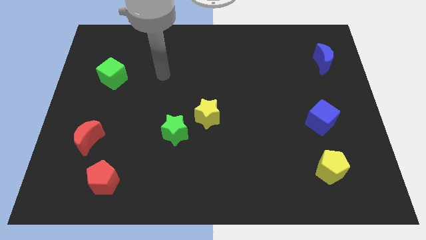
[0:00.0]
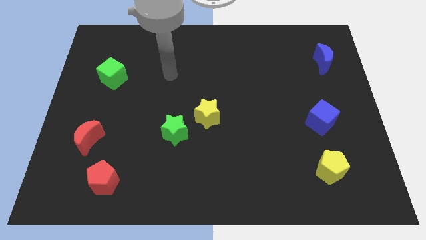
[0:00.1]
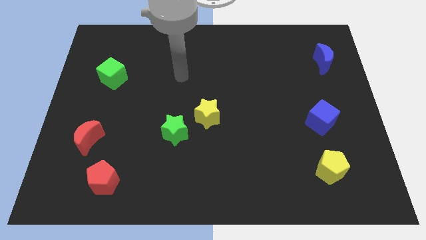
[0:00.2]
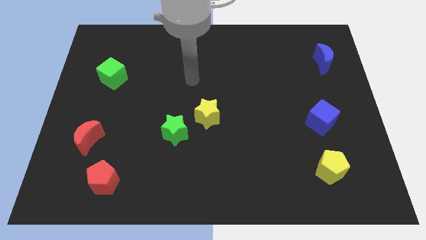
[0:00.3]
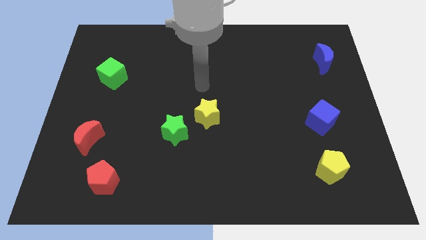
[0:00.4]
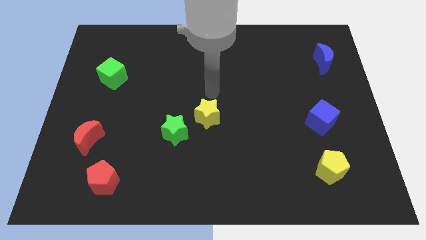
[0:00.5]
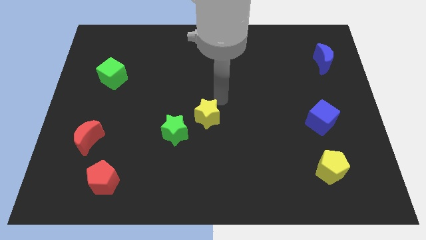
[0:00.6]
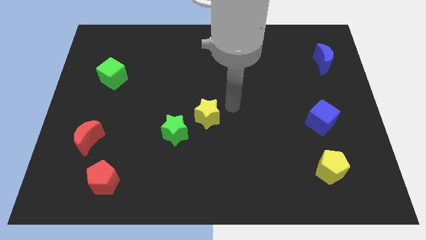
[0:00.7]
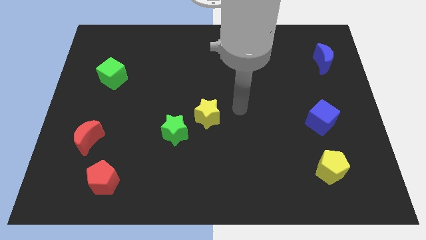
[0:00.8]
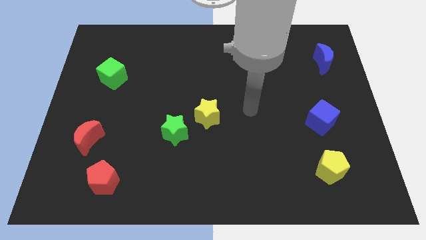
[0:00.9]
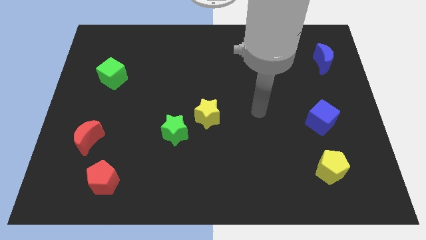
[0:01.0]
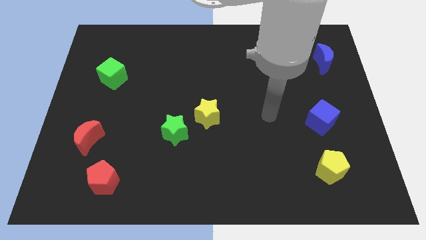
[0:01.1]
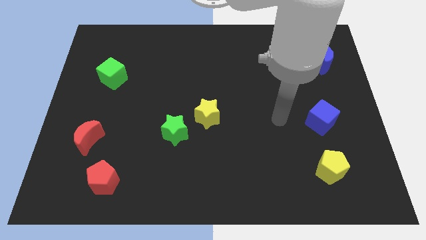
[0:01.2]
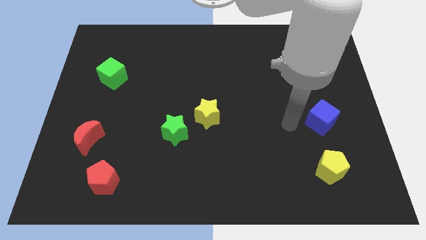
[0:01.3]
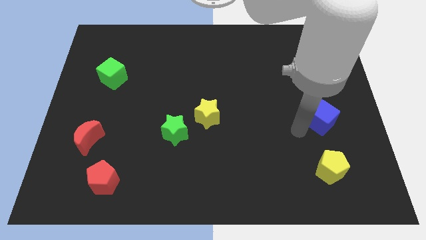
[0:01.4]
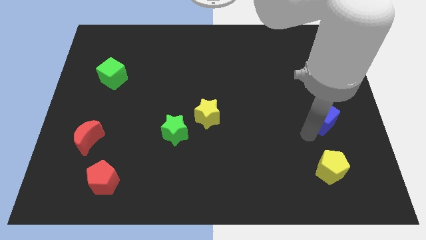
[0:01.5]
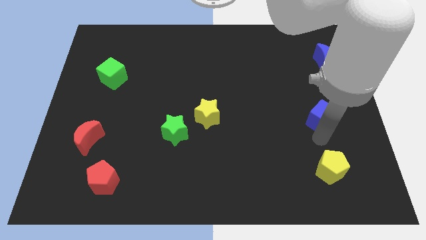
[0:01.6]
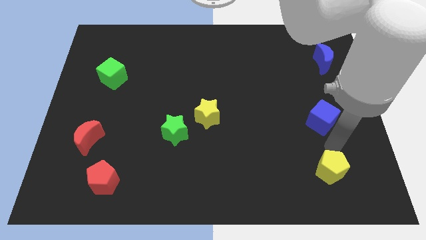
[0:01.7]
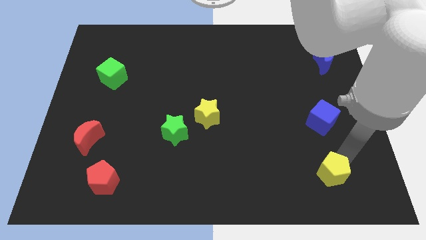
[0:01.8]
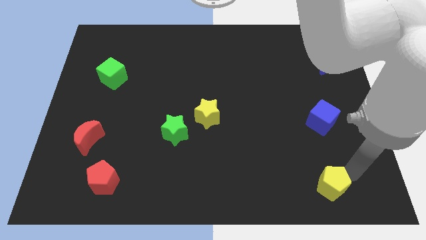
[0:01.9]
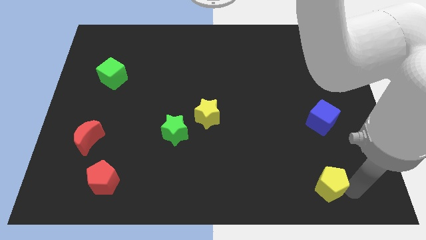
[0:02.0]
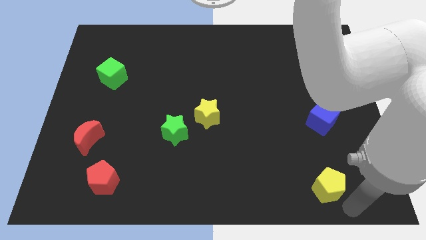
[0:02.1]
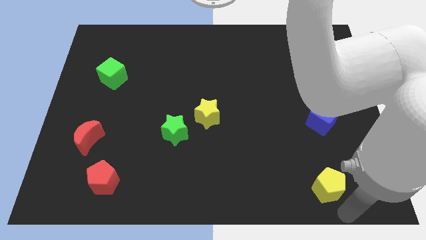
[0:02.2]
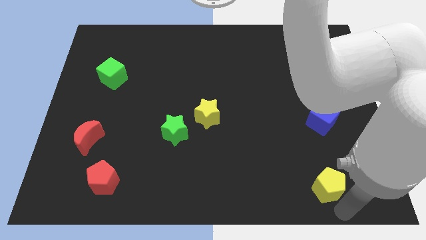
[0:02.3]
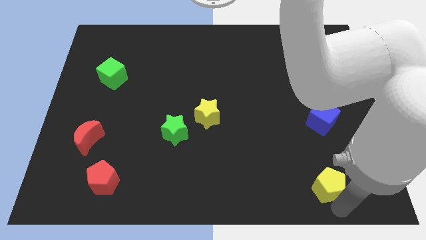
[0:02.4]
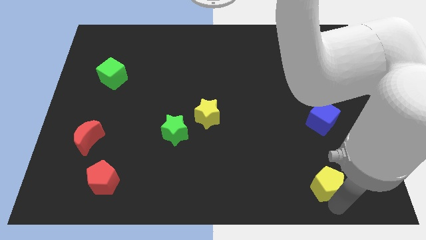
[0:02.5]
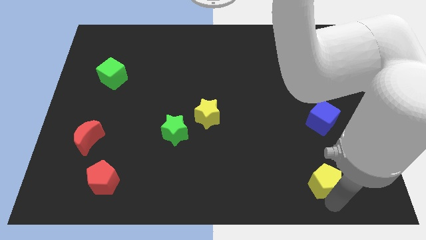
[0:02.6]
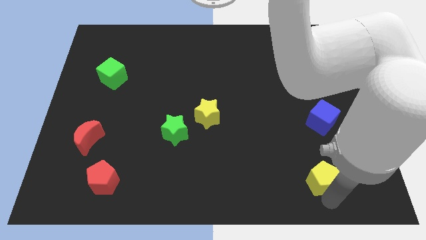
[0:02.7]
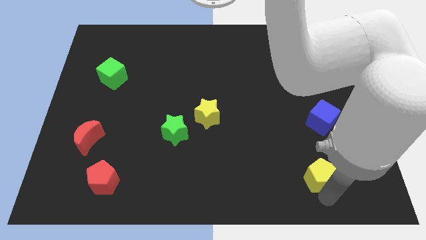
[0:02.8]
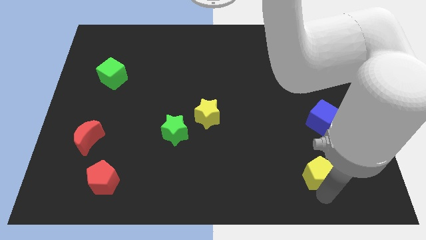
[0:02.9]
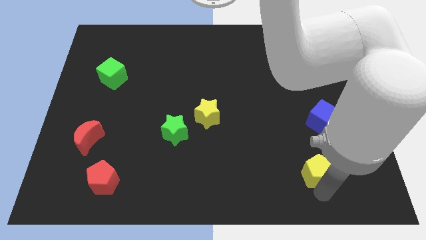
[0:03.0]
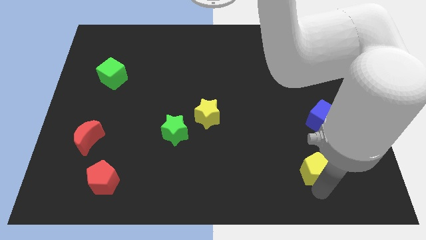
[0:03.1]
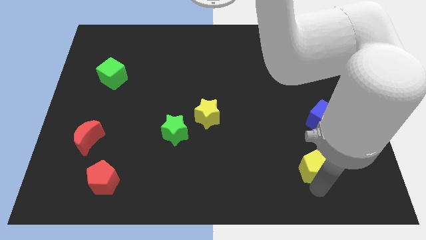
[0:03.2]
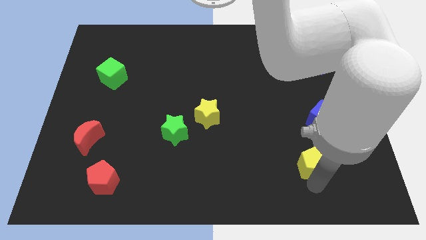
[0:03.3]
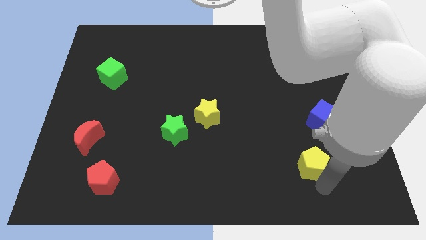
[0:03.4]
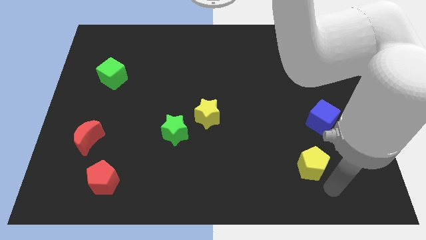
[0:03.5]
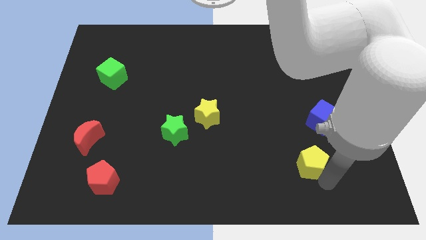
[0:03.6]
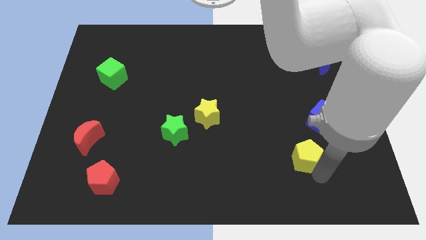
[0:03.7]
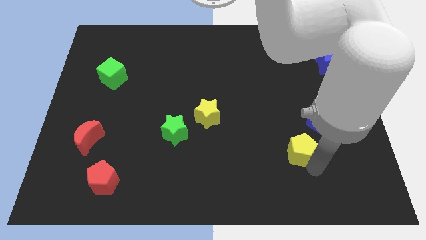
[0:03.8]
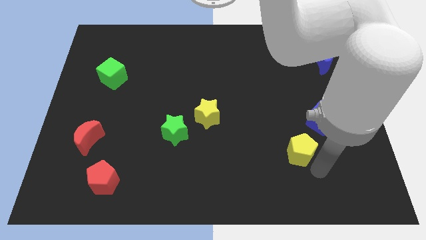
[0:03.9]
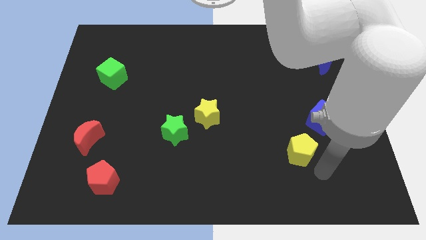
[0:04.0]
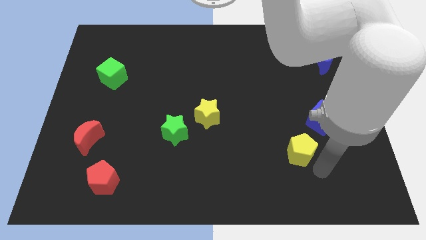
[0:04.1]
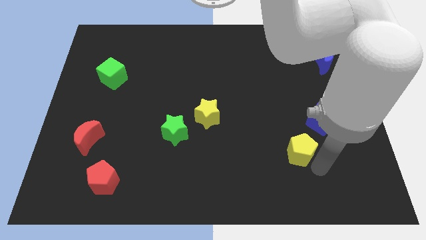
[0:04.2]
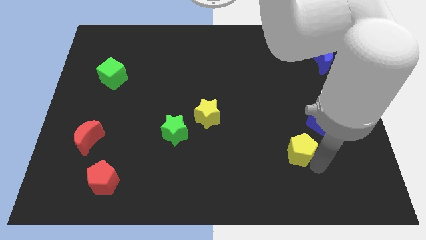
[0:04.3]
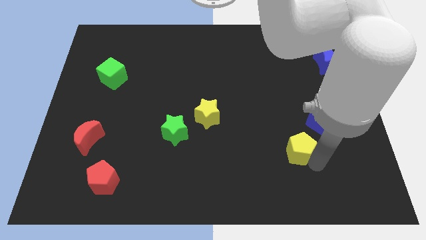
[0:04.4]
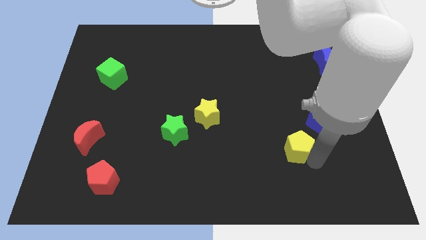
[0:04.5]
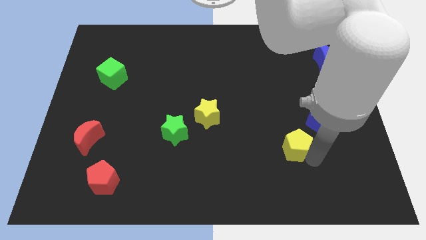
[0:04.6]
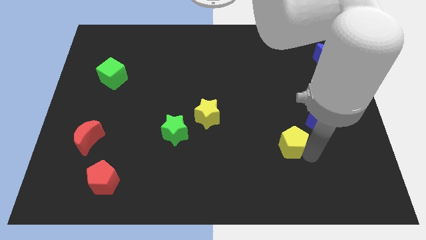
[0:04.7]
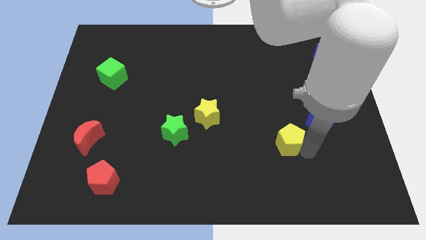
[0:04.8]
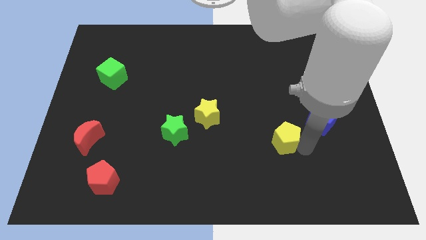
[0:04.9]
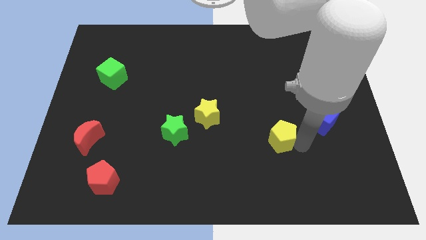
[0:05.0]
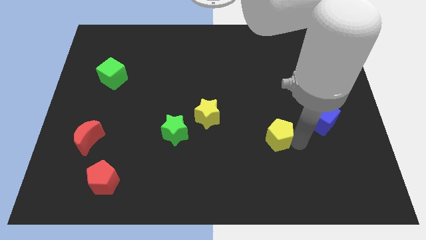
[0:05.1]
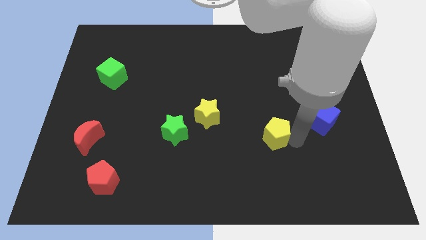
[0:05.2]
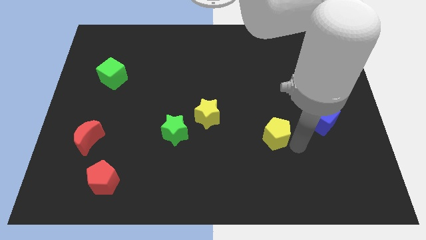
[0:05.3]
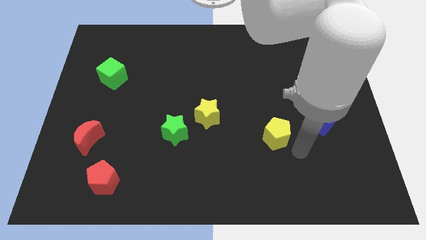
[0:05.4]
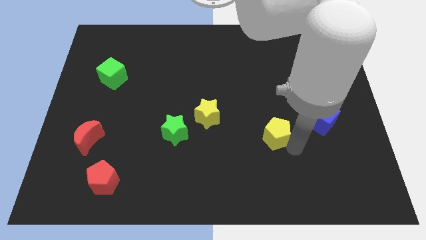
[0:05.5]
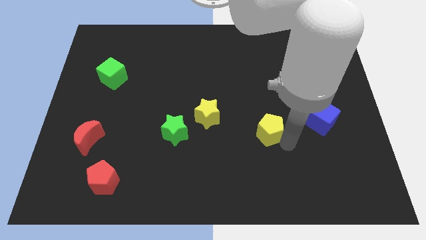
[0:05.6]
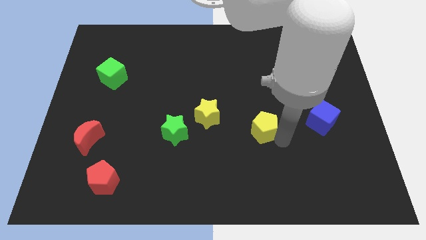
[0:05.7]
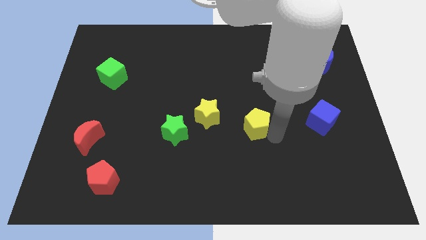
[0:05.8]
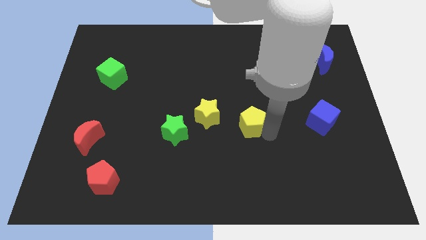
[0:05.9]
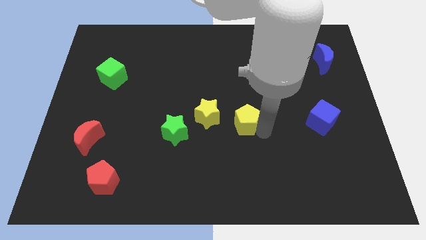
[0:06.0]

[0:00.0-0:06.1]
slide the yellow pentagon up and left diagonally

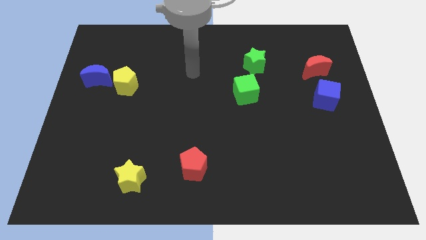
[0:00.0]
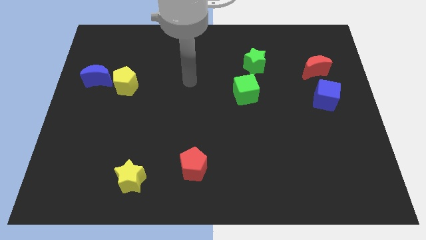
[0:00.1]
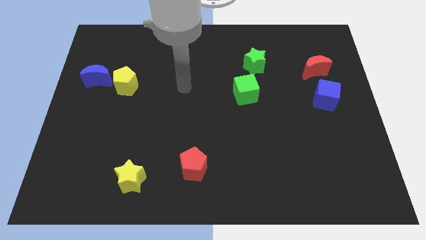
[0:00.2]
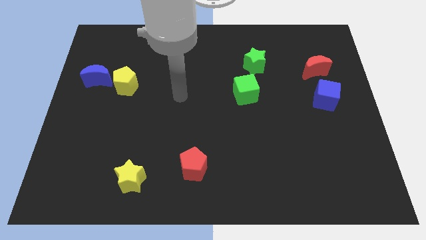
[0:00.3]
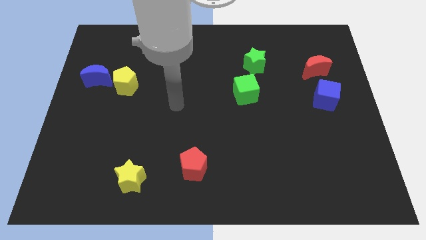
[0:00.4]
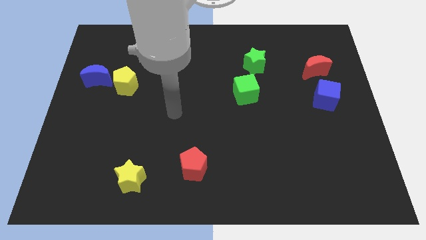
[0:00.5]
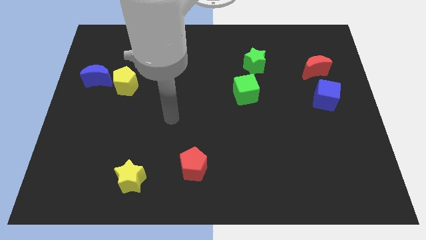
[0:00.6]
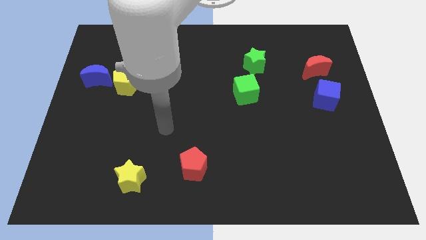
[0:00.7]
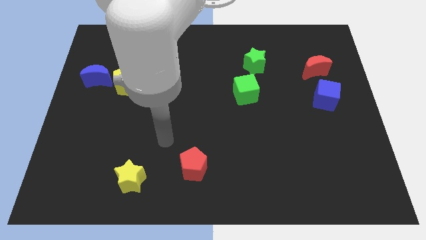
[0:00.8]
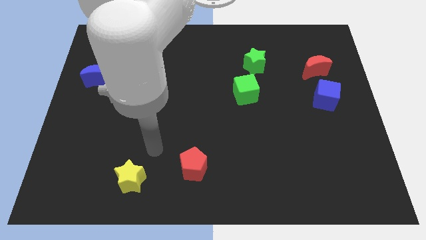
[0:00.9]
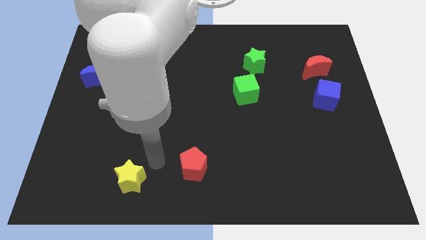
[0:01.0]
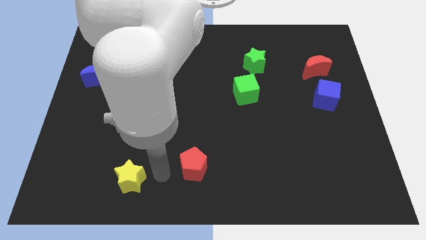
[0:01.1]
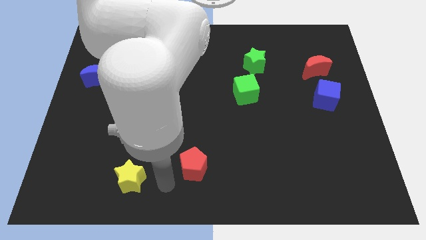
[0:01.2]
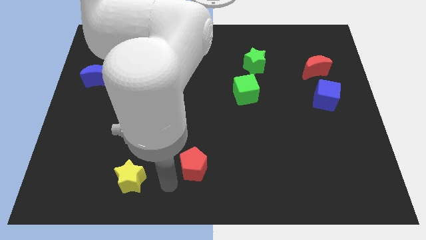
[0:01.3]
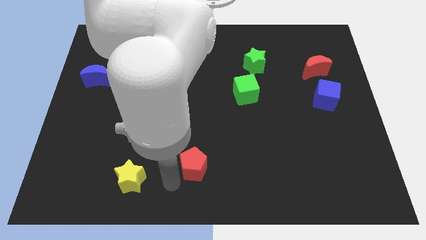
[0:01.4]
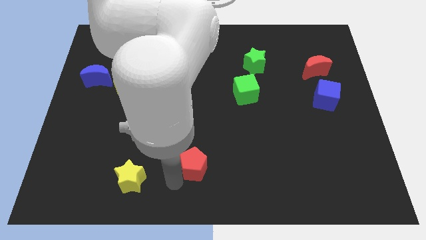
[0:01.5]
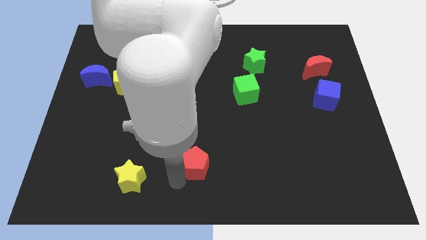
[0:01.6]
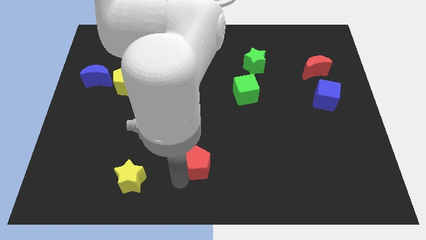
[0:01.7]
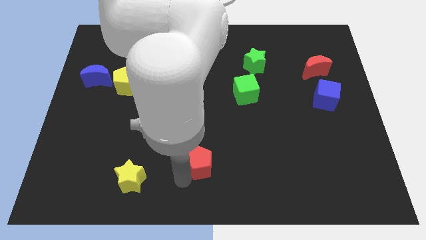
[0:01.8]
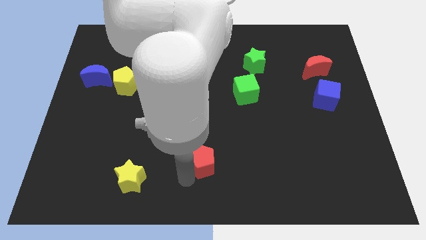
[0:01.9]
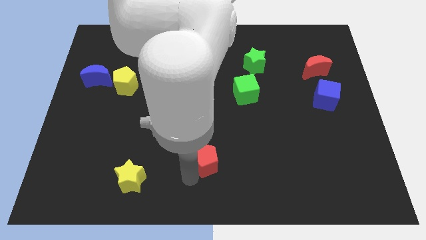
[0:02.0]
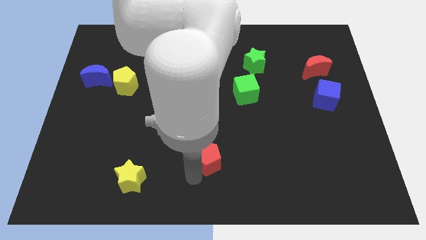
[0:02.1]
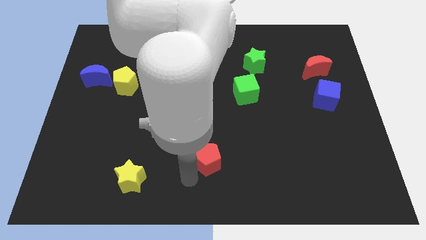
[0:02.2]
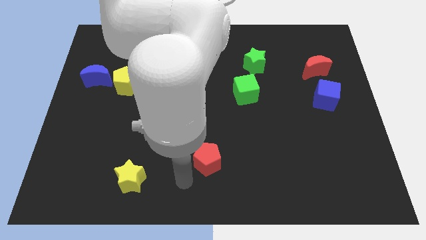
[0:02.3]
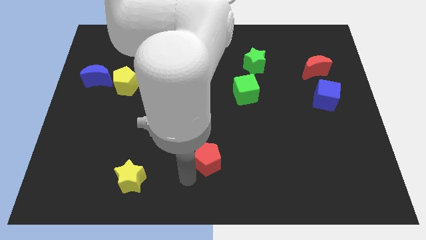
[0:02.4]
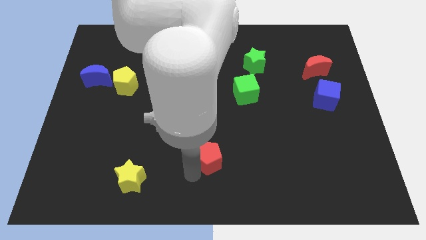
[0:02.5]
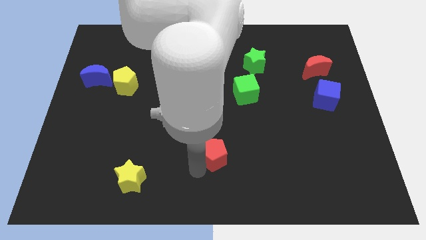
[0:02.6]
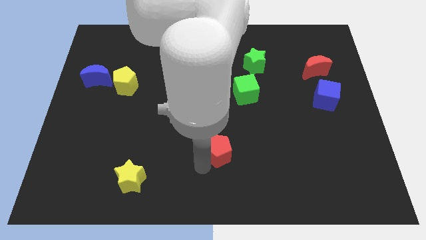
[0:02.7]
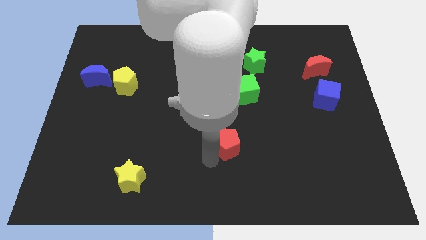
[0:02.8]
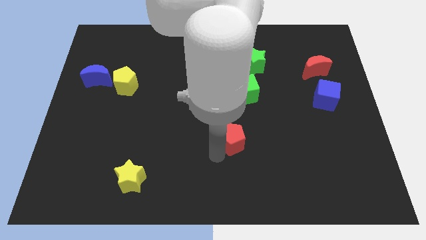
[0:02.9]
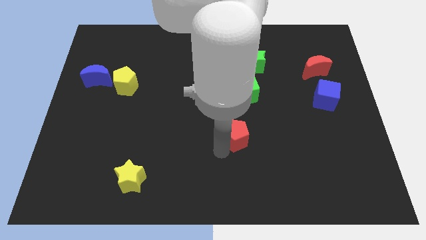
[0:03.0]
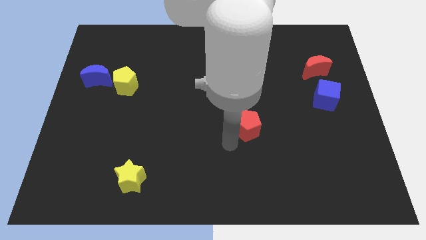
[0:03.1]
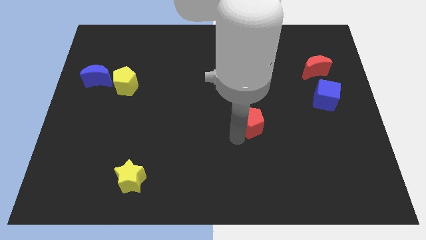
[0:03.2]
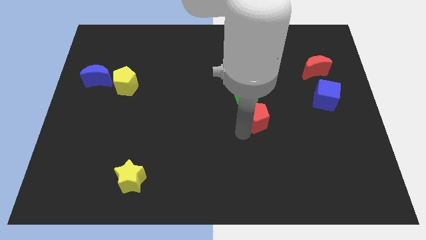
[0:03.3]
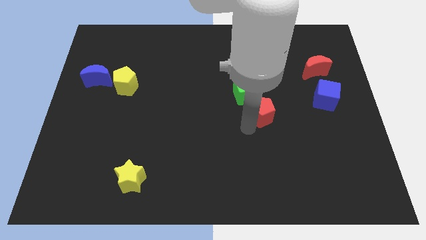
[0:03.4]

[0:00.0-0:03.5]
move the red pentagon up and to the right diagonally
